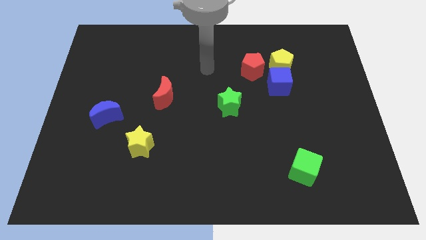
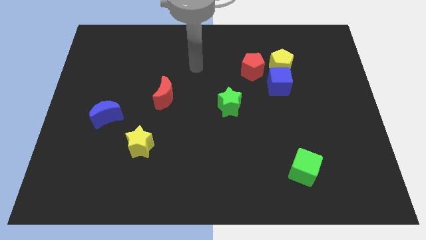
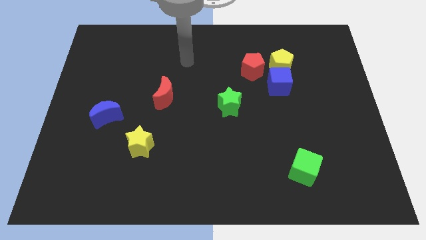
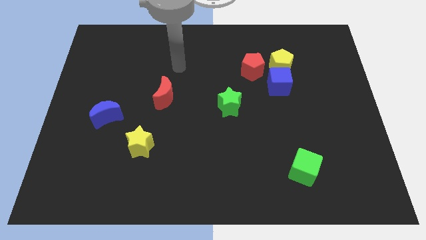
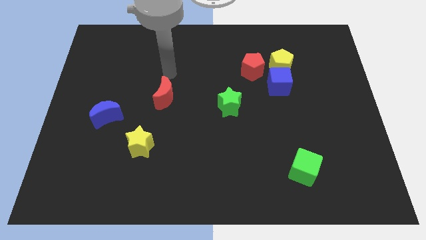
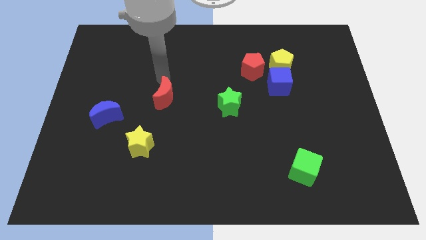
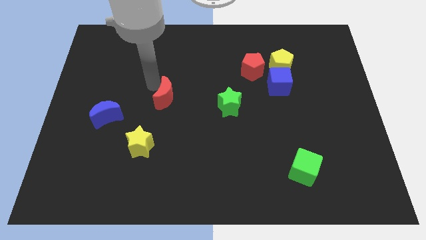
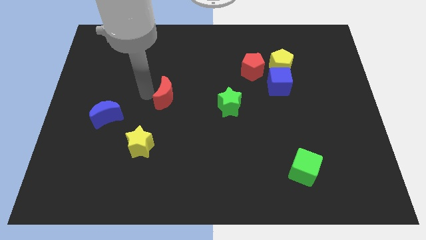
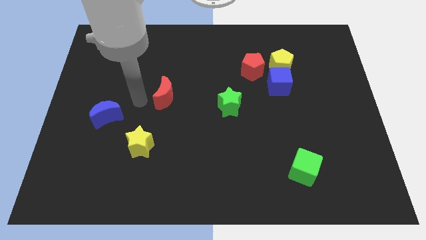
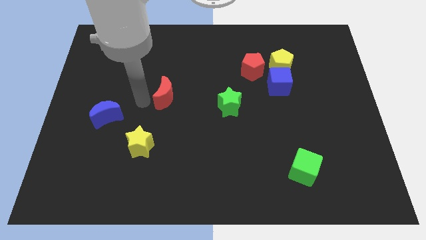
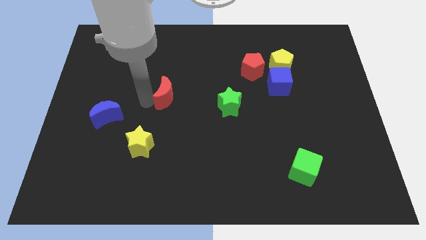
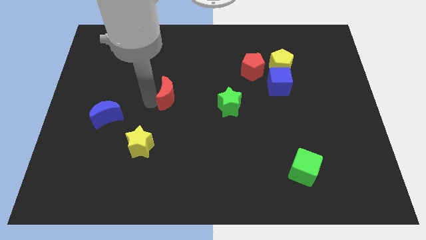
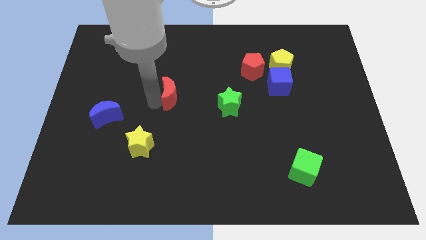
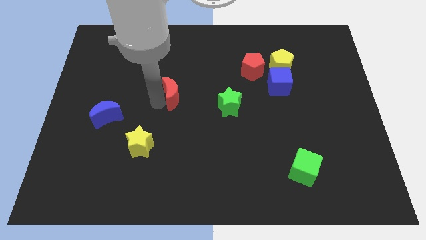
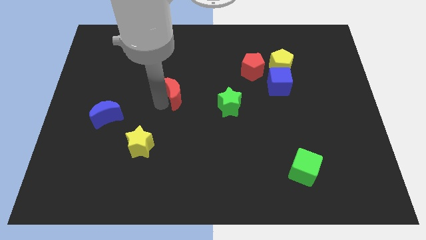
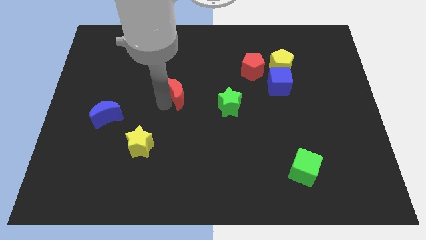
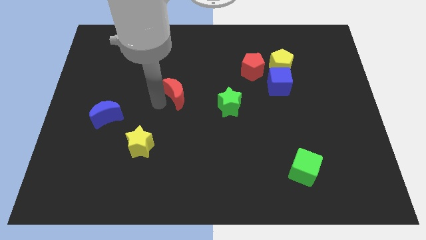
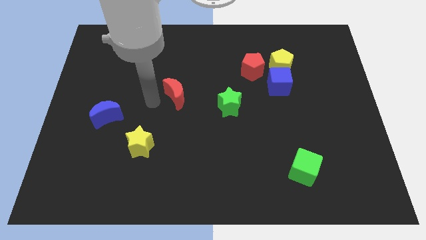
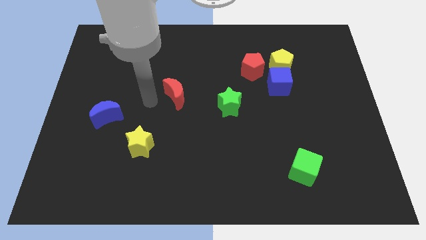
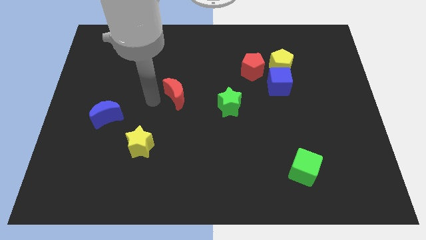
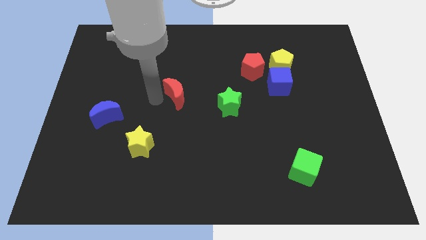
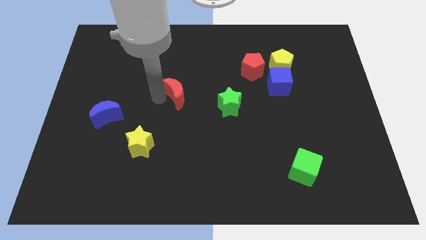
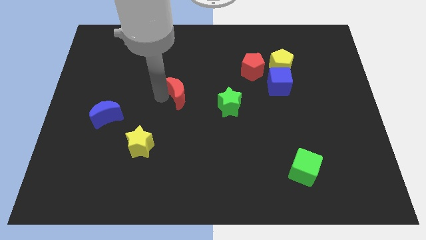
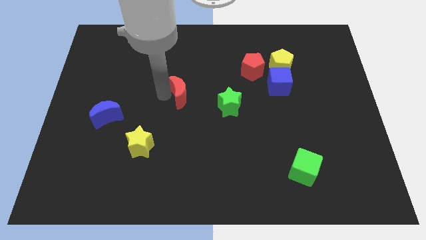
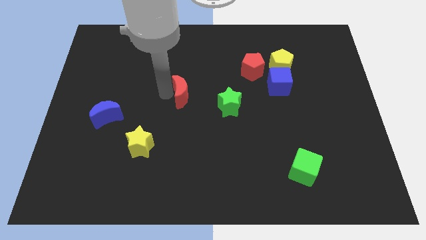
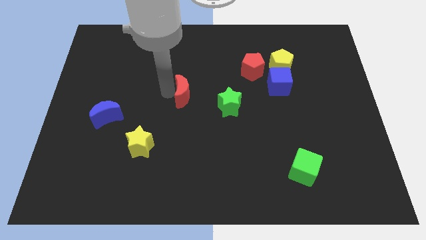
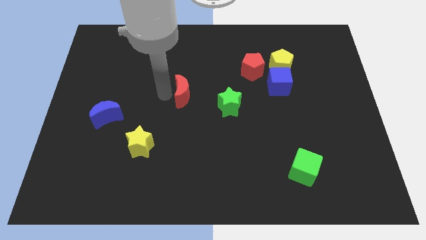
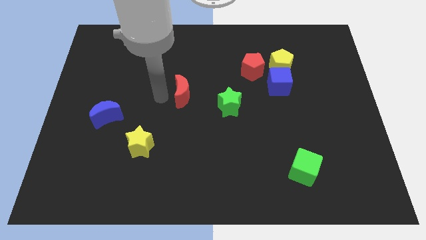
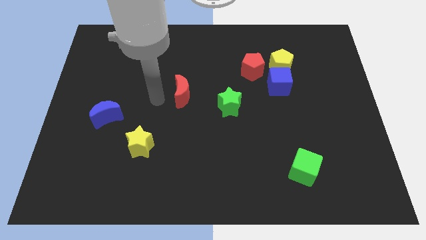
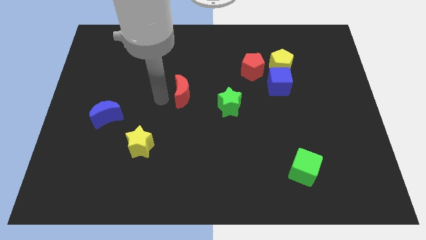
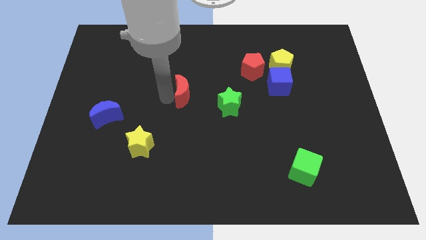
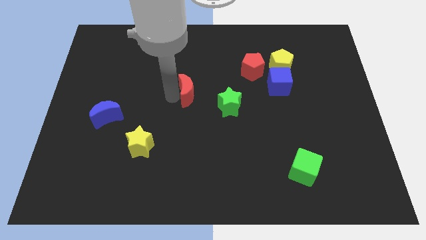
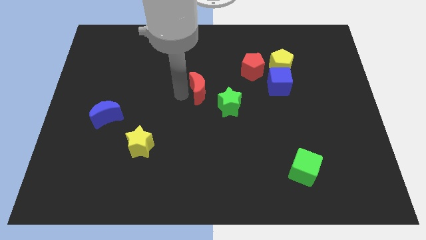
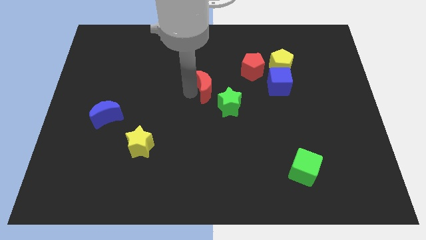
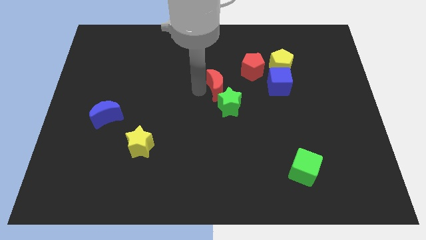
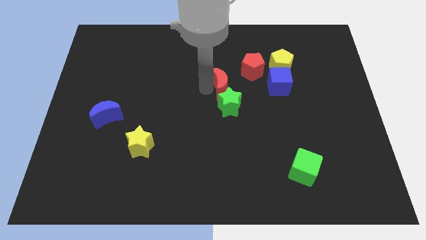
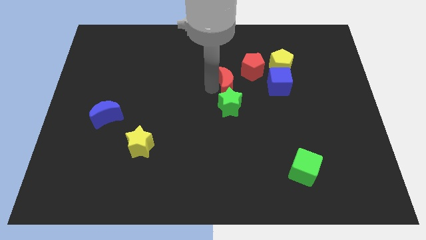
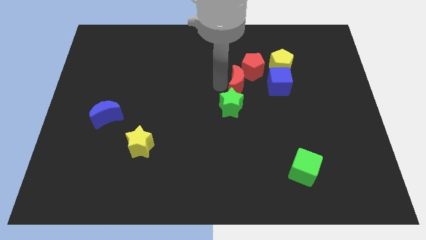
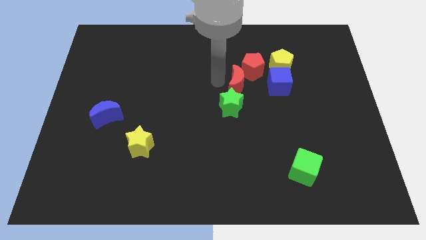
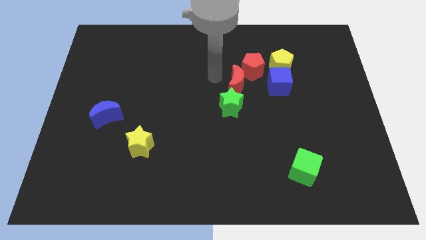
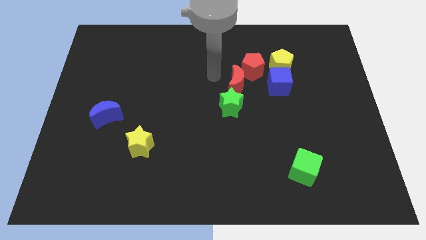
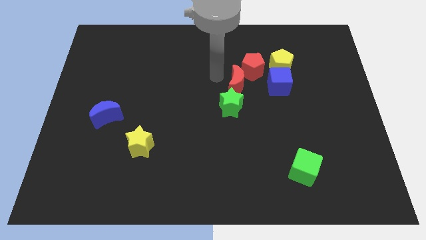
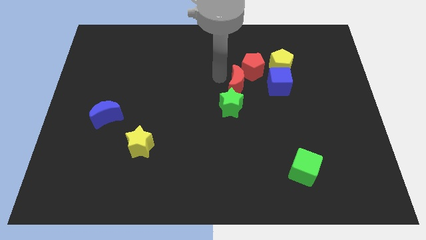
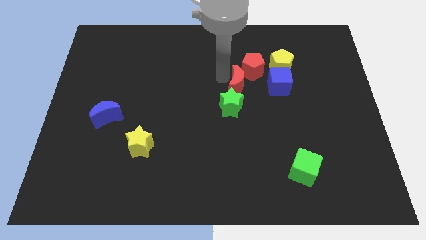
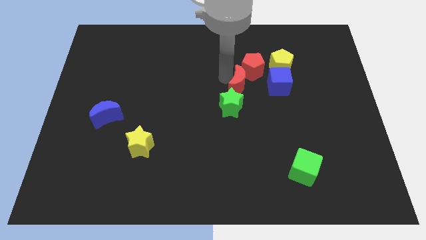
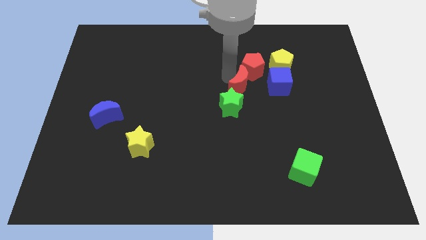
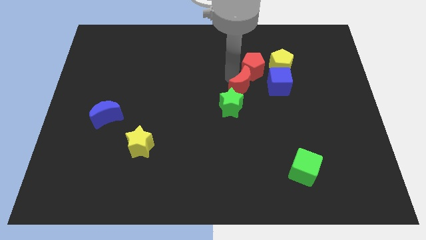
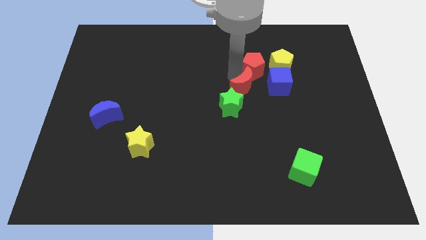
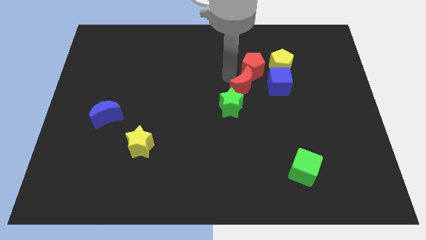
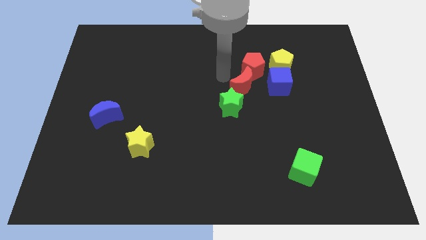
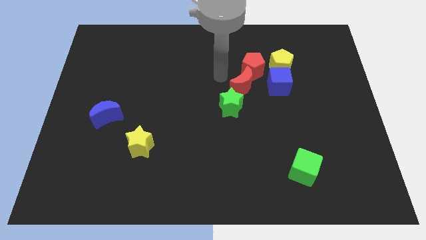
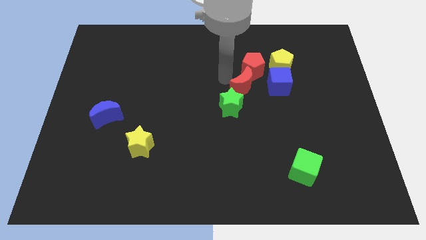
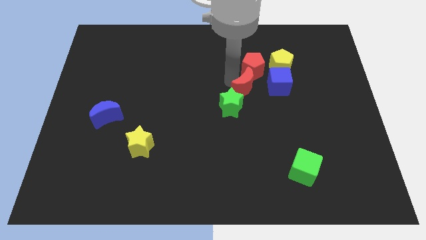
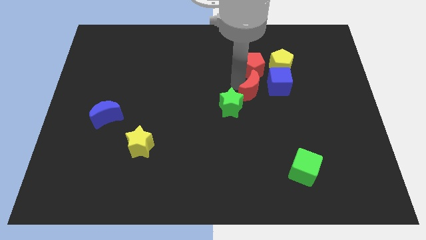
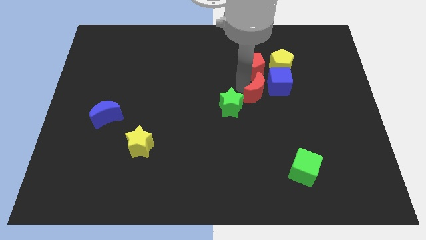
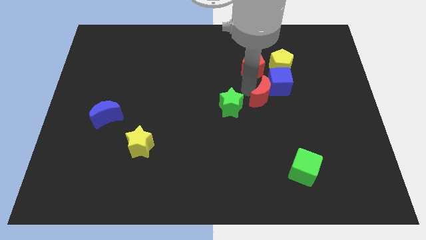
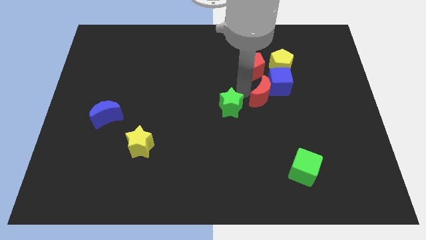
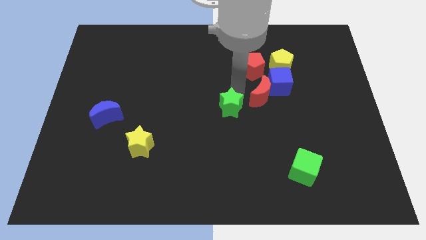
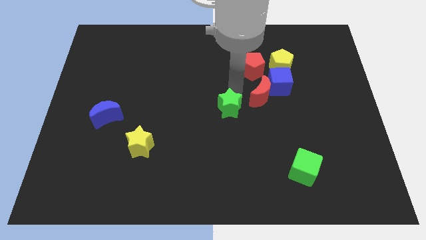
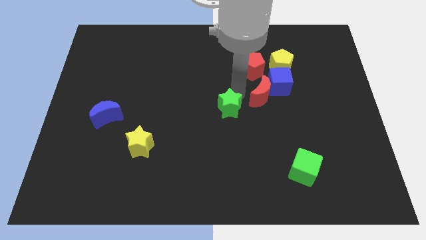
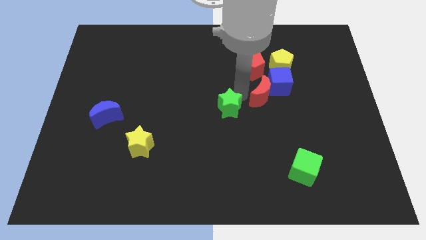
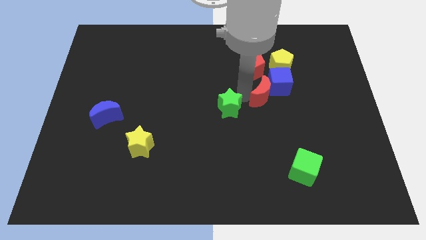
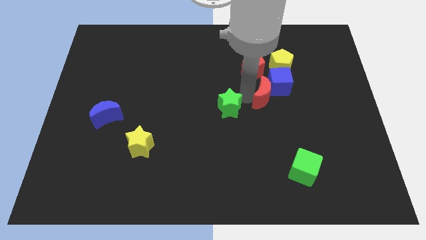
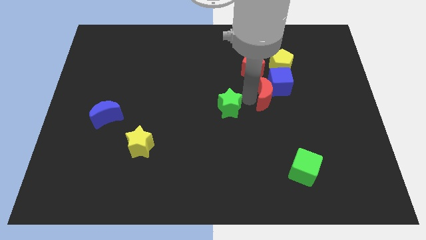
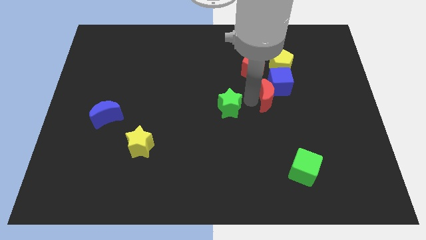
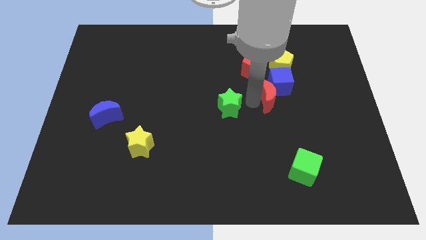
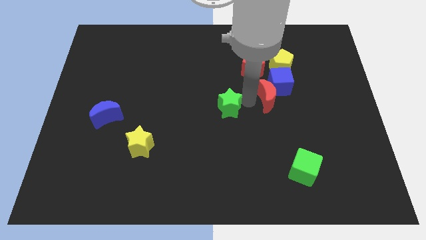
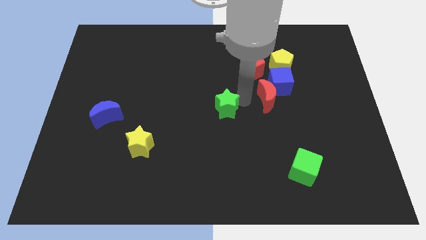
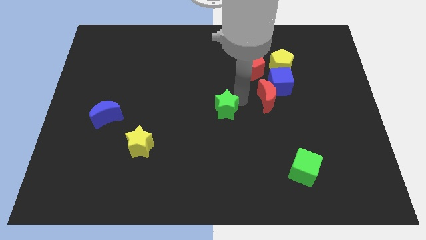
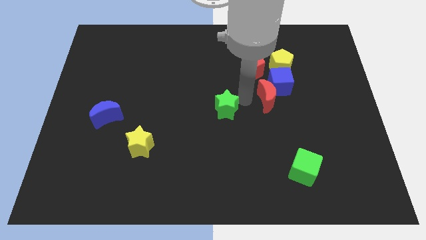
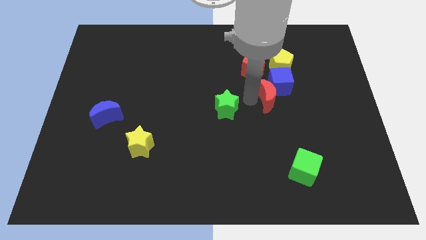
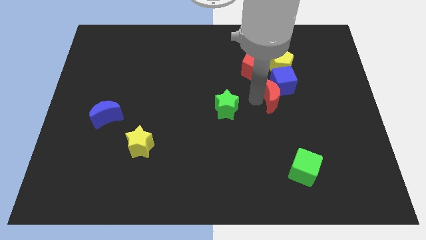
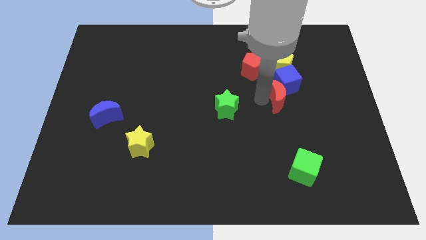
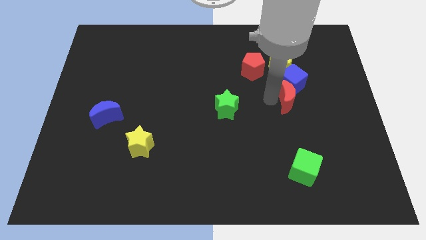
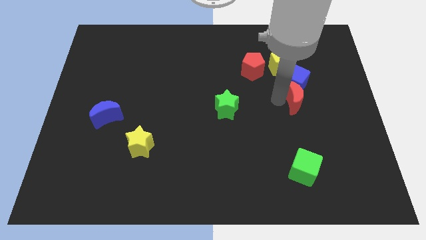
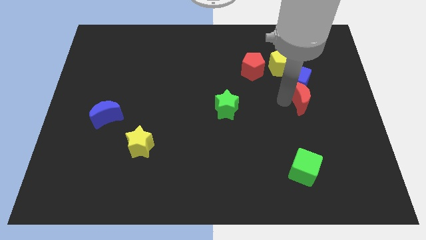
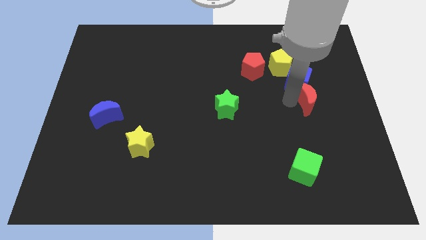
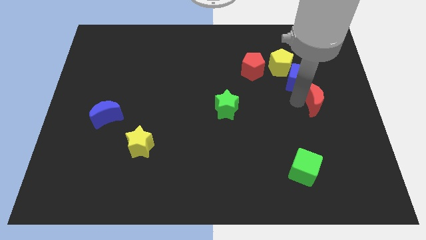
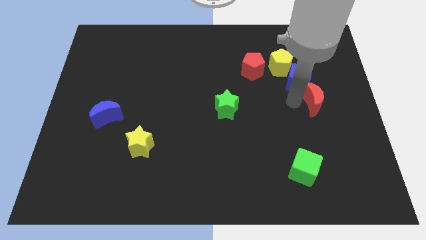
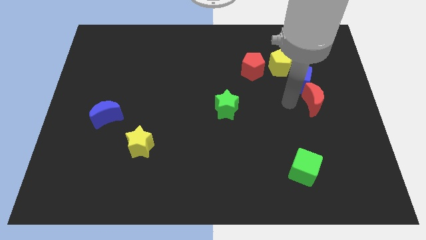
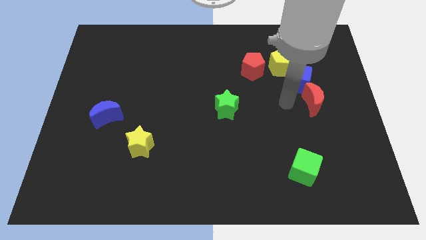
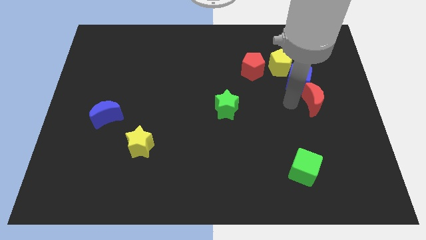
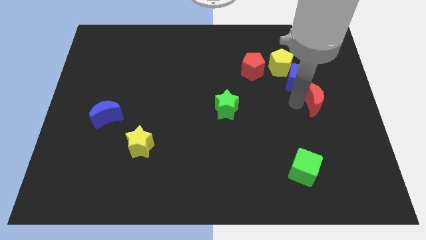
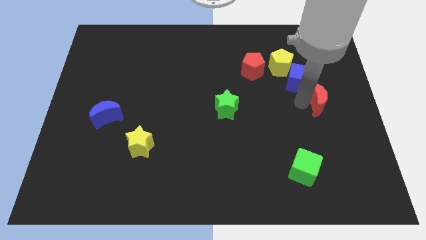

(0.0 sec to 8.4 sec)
put the red moon to the center right
